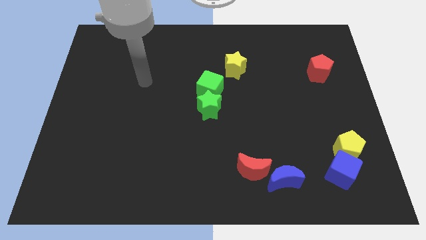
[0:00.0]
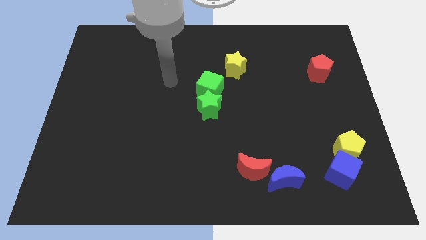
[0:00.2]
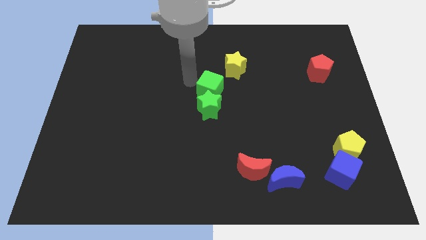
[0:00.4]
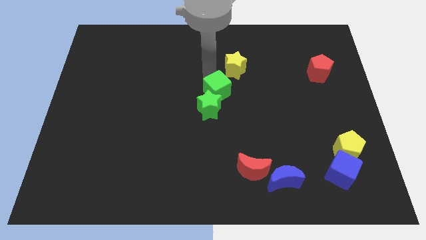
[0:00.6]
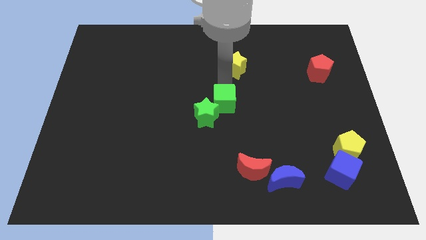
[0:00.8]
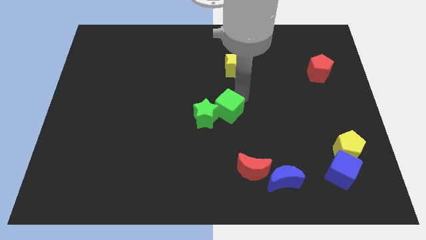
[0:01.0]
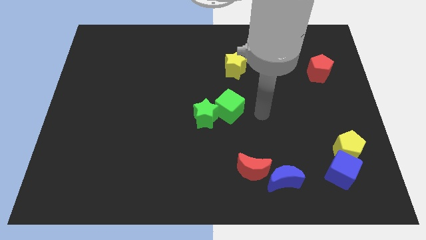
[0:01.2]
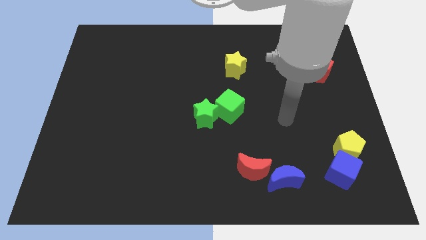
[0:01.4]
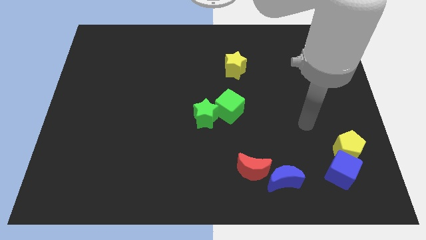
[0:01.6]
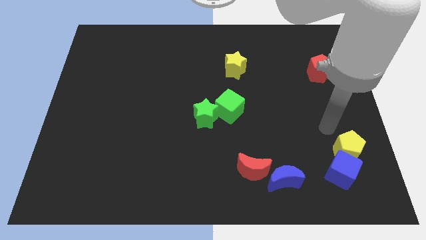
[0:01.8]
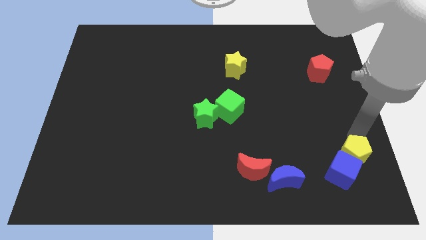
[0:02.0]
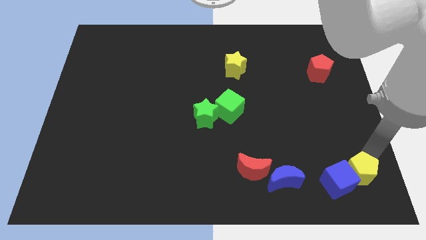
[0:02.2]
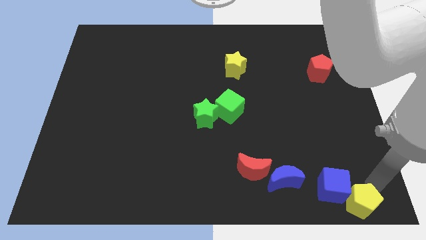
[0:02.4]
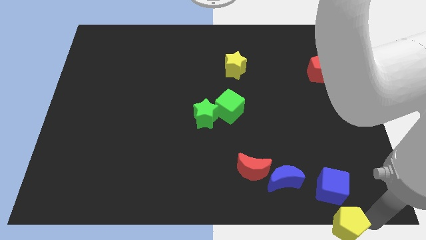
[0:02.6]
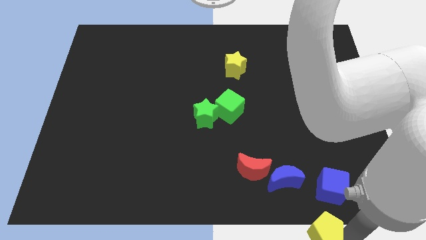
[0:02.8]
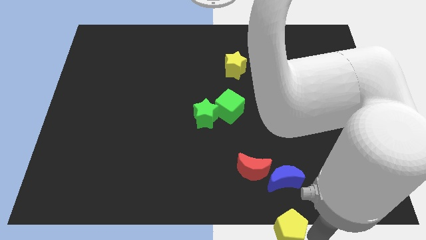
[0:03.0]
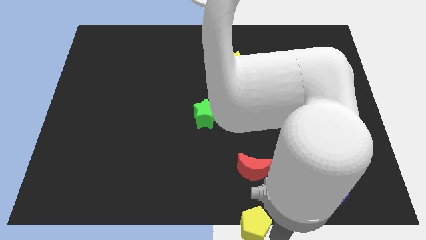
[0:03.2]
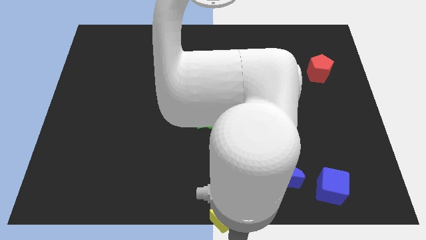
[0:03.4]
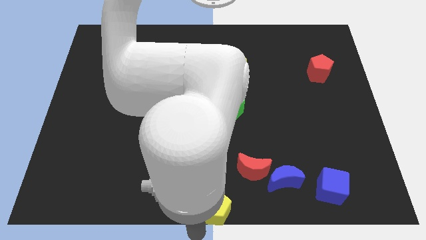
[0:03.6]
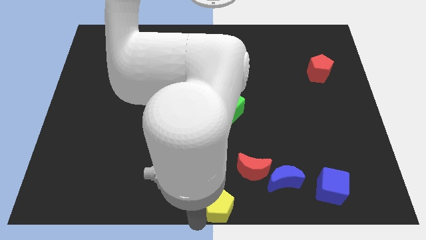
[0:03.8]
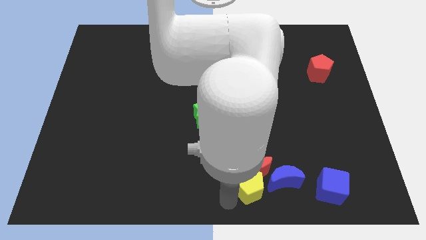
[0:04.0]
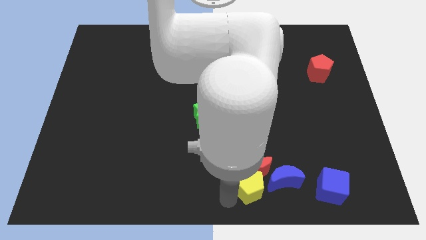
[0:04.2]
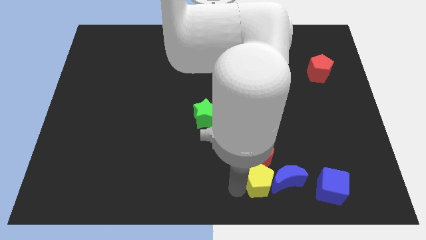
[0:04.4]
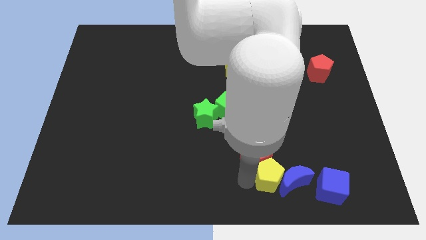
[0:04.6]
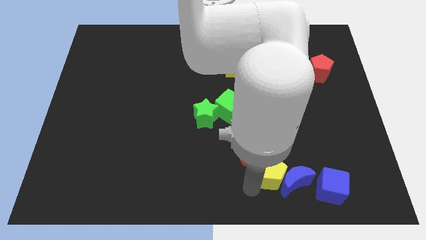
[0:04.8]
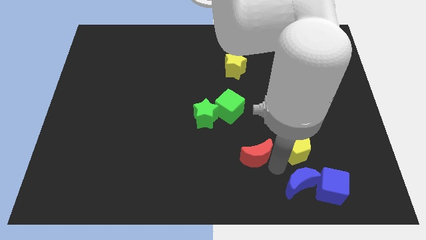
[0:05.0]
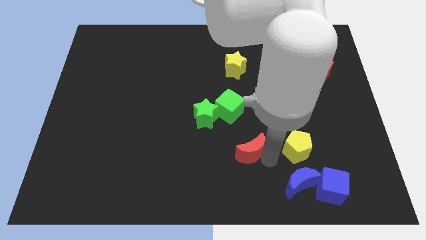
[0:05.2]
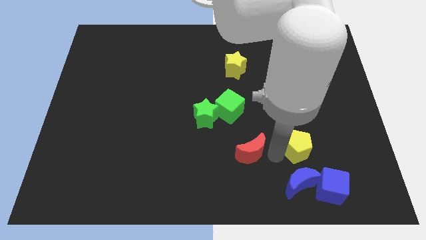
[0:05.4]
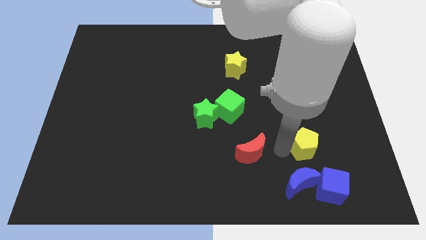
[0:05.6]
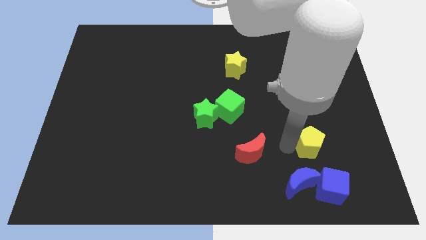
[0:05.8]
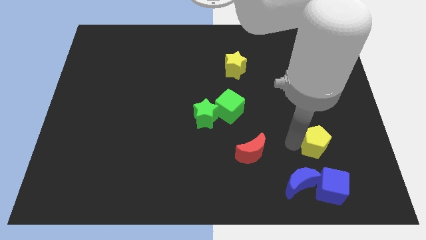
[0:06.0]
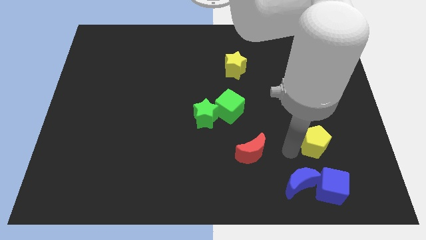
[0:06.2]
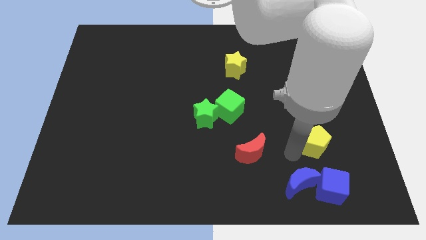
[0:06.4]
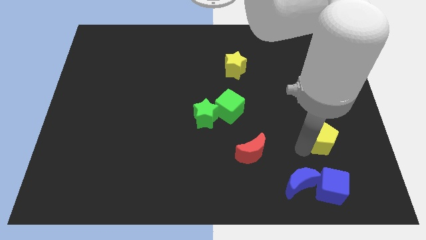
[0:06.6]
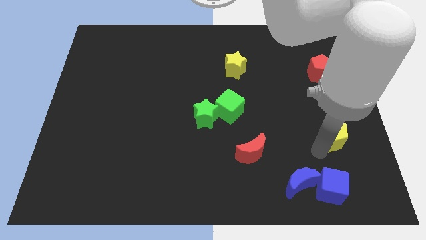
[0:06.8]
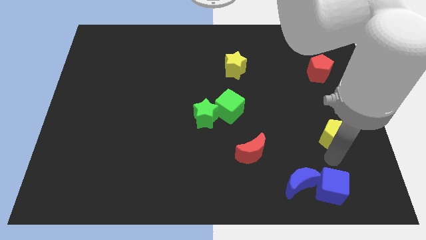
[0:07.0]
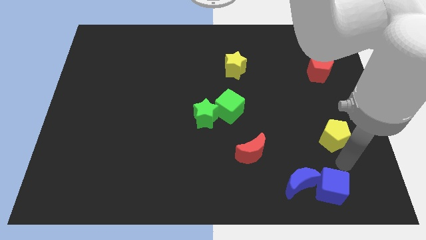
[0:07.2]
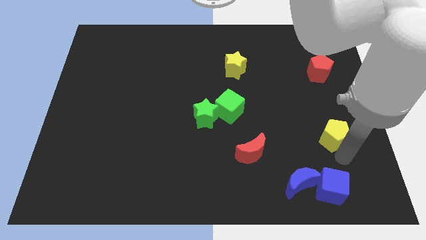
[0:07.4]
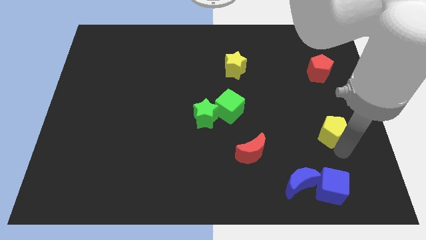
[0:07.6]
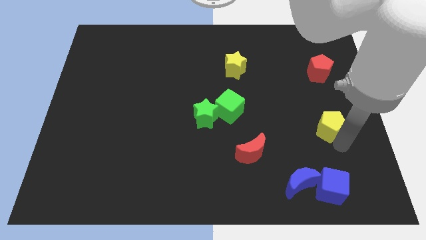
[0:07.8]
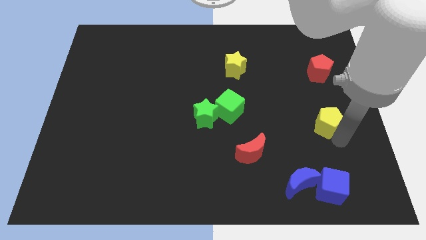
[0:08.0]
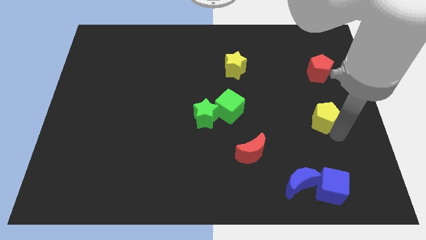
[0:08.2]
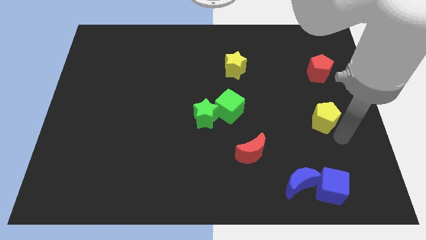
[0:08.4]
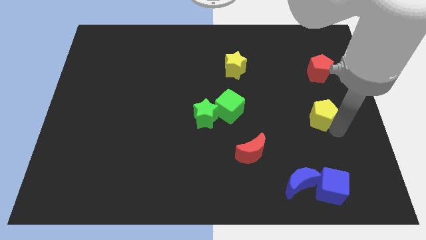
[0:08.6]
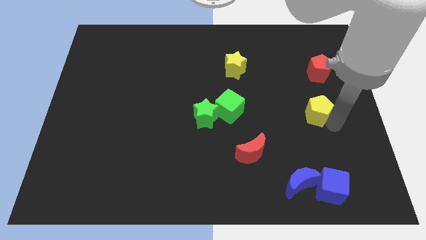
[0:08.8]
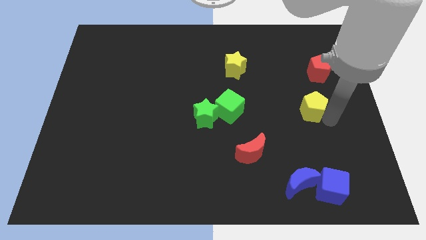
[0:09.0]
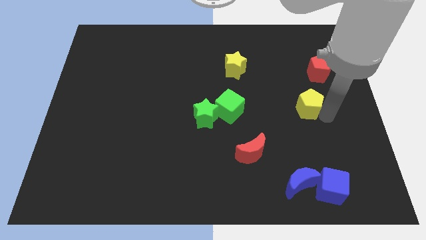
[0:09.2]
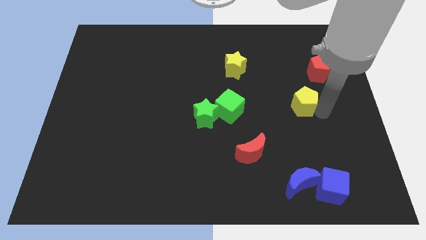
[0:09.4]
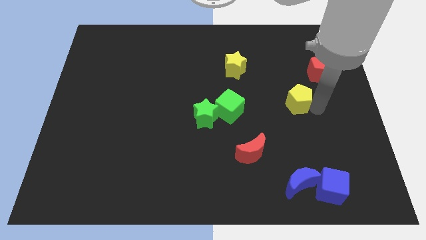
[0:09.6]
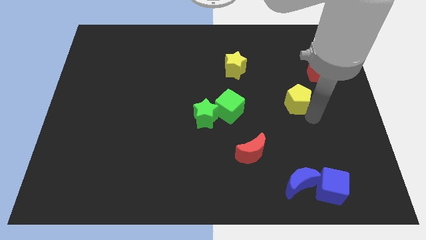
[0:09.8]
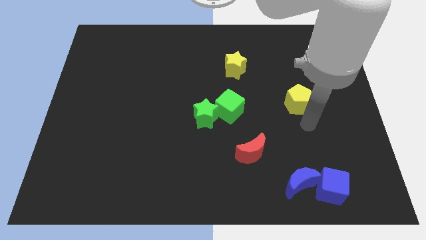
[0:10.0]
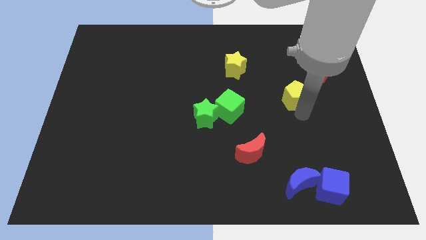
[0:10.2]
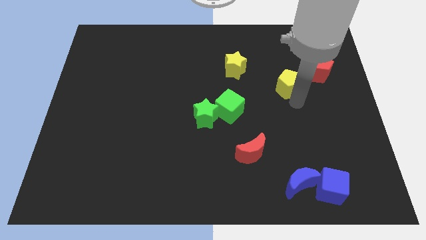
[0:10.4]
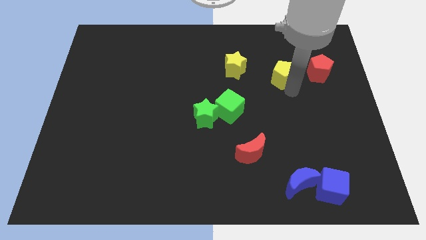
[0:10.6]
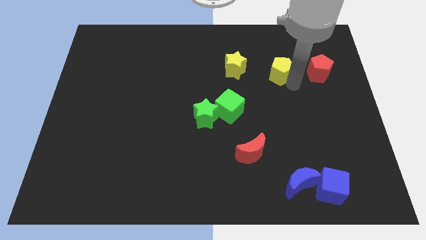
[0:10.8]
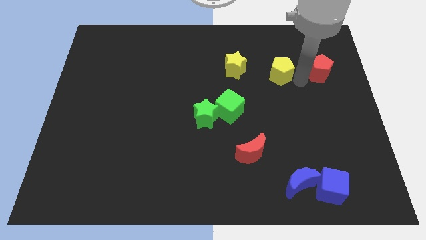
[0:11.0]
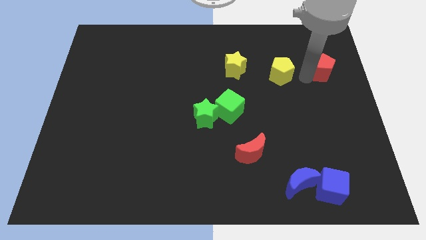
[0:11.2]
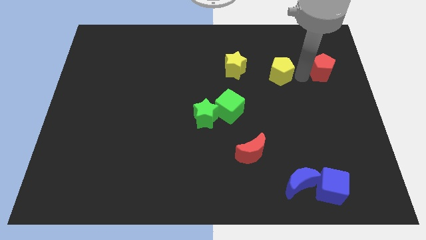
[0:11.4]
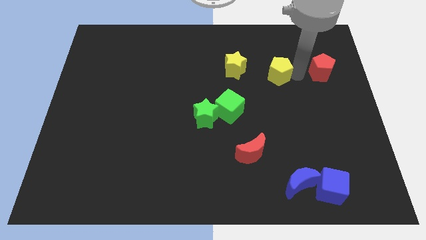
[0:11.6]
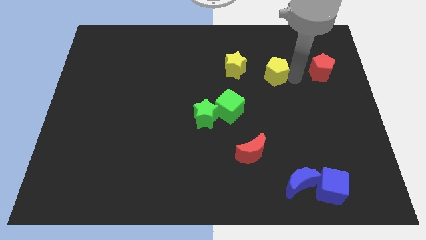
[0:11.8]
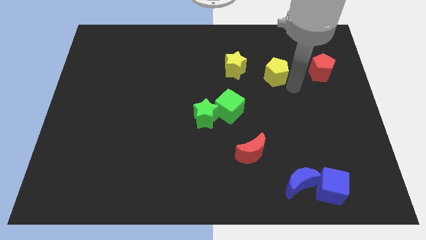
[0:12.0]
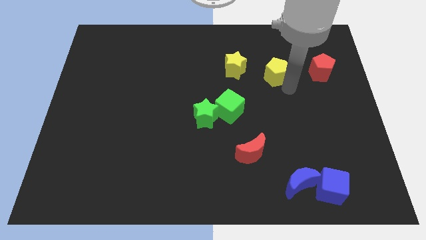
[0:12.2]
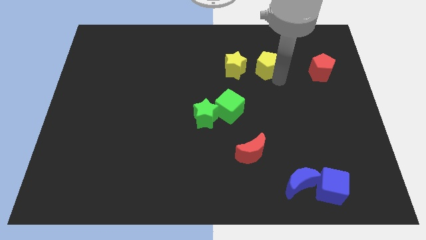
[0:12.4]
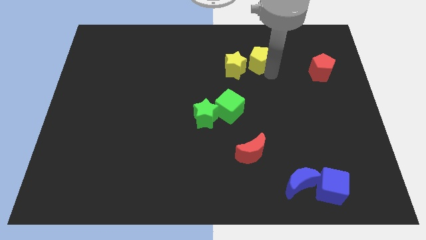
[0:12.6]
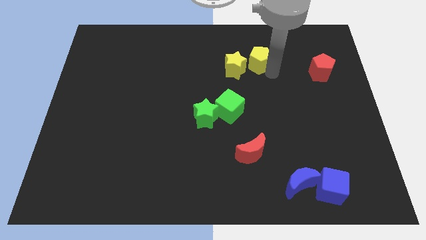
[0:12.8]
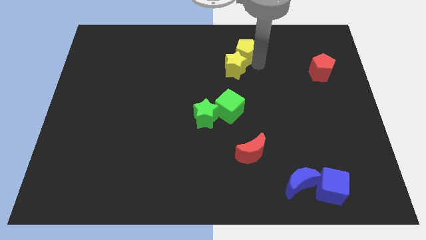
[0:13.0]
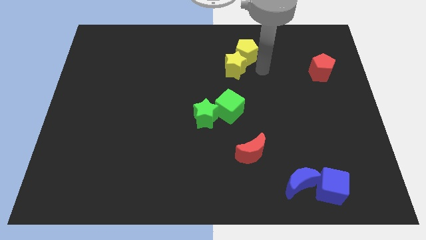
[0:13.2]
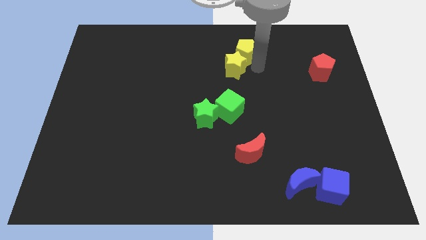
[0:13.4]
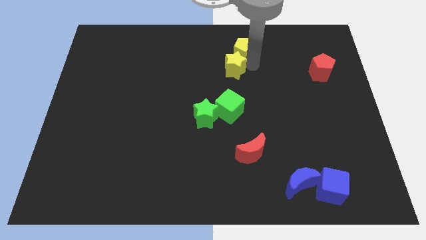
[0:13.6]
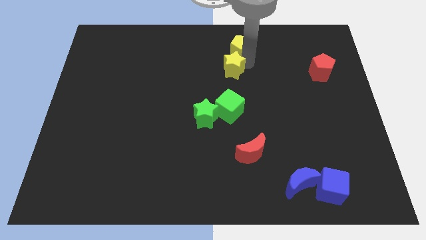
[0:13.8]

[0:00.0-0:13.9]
slide the yellow pentagon to the top
